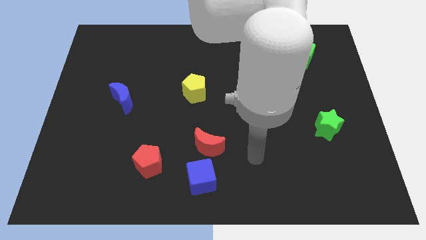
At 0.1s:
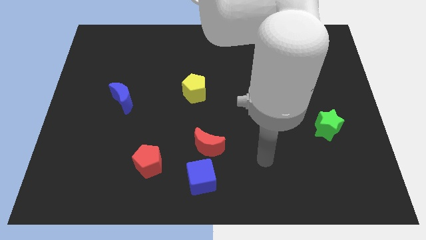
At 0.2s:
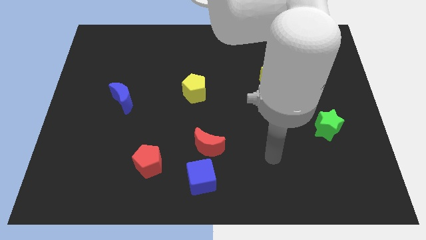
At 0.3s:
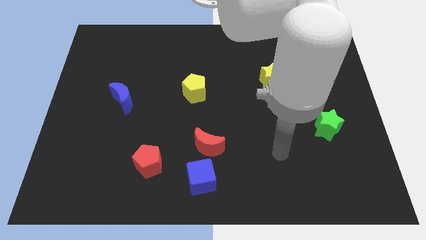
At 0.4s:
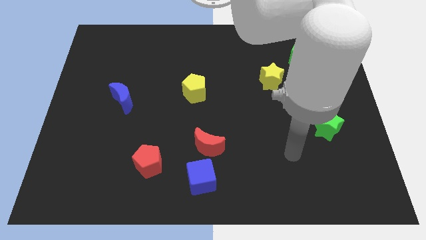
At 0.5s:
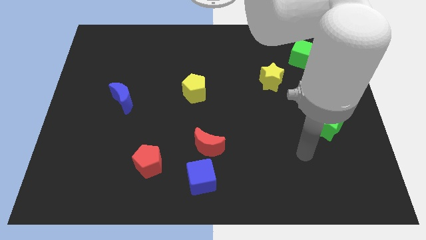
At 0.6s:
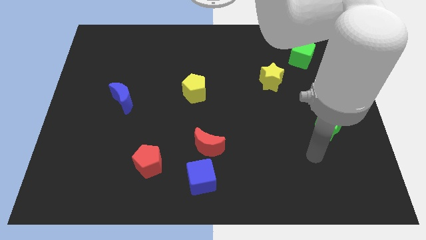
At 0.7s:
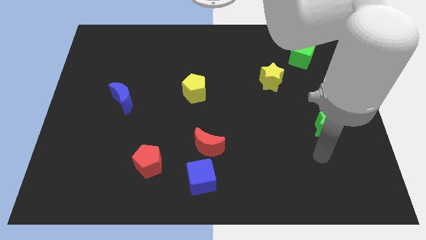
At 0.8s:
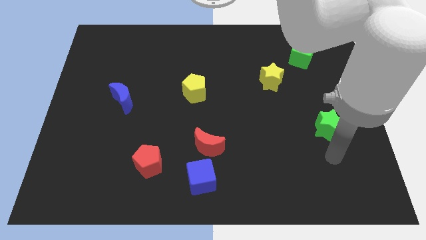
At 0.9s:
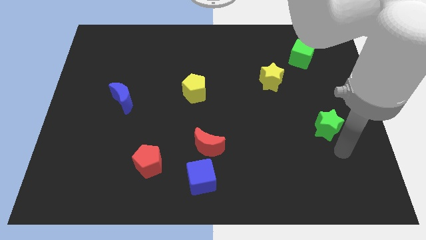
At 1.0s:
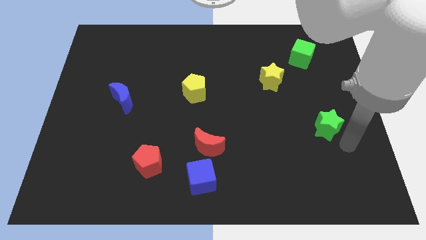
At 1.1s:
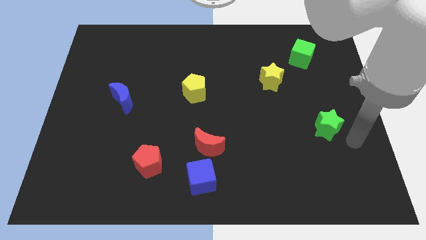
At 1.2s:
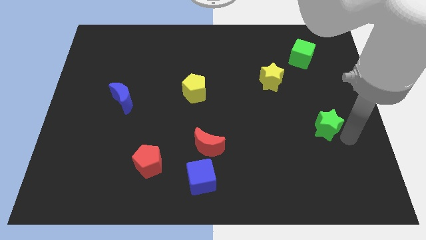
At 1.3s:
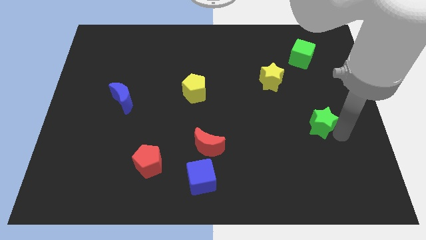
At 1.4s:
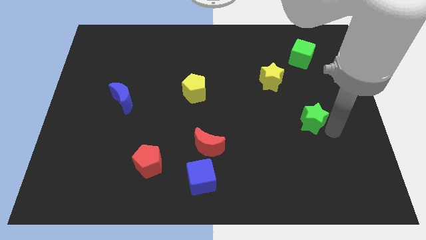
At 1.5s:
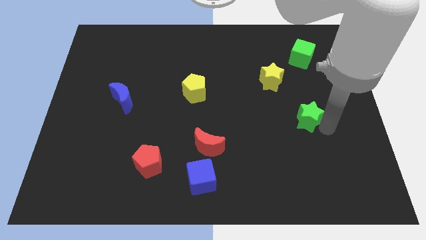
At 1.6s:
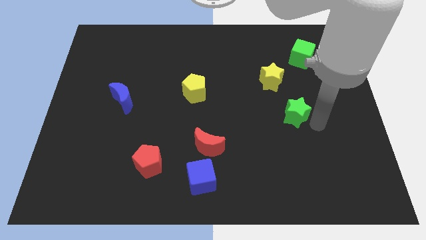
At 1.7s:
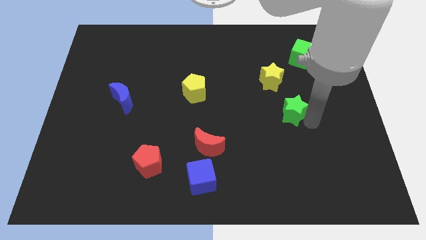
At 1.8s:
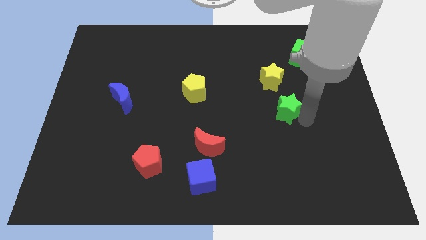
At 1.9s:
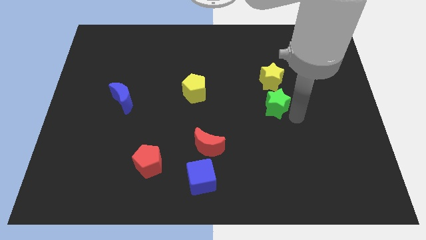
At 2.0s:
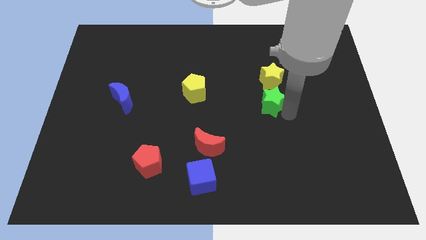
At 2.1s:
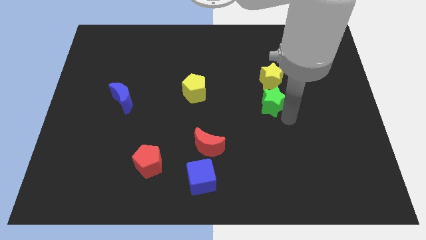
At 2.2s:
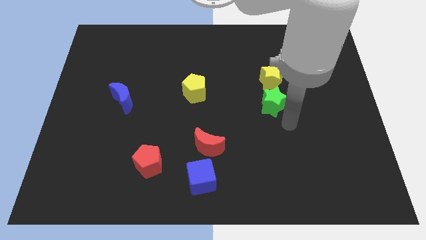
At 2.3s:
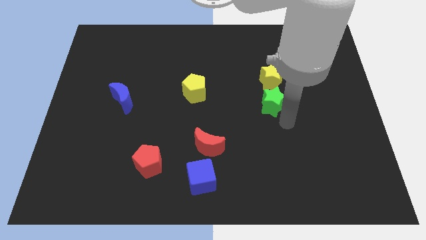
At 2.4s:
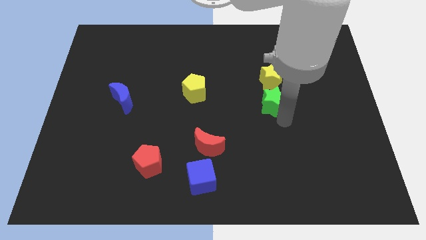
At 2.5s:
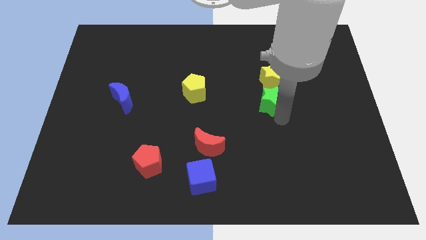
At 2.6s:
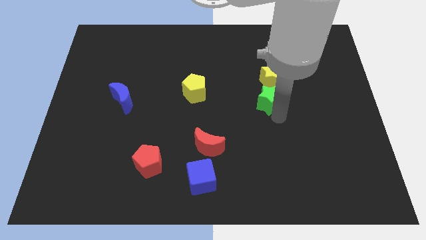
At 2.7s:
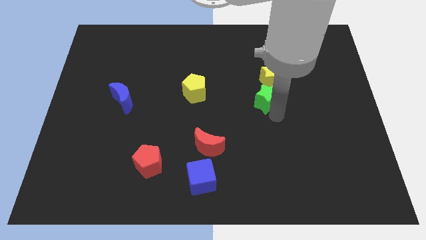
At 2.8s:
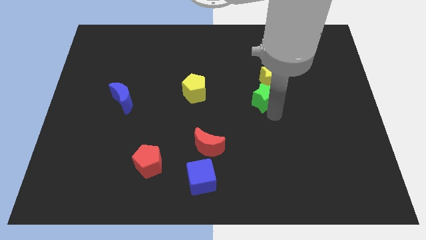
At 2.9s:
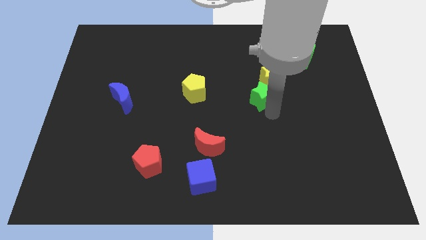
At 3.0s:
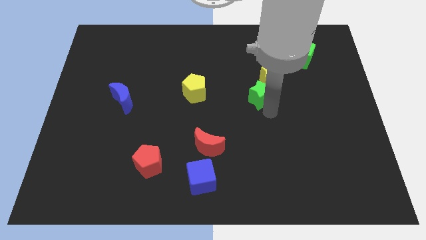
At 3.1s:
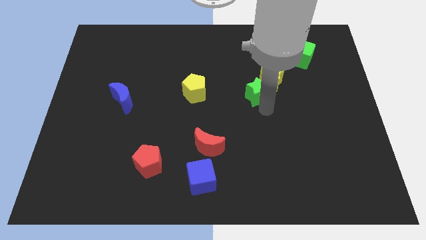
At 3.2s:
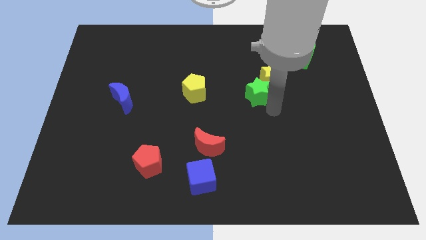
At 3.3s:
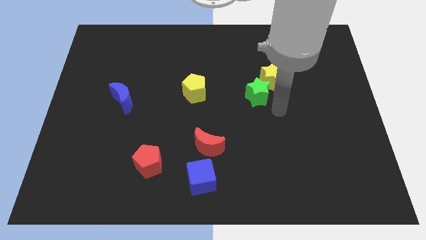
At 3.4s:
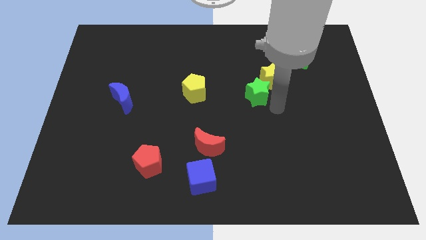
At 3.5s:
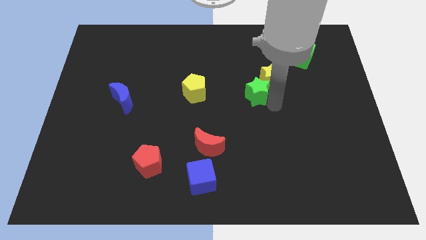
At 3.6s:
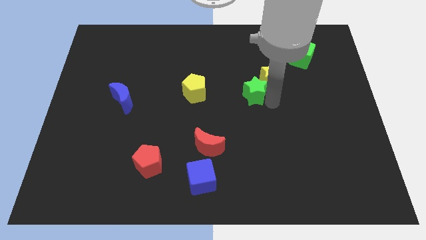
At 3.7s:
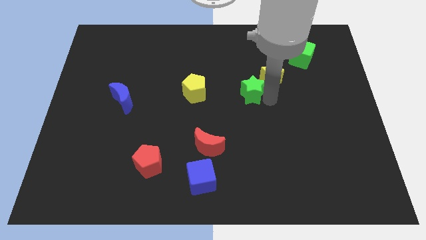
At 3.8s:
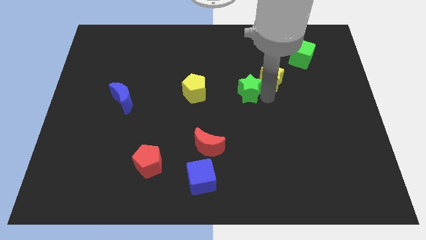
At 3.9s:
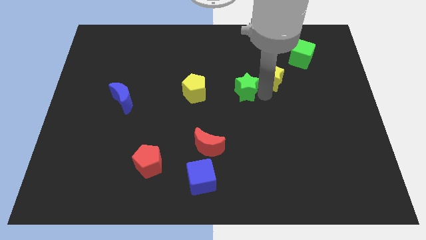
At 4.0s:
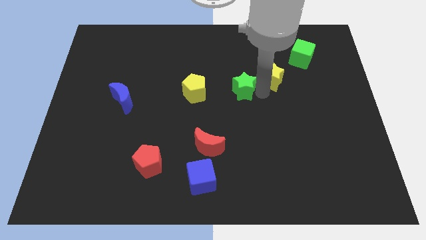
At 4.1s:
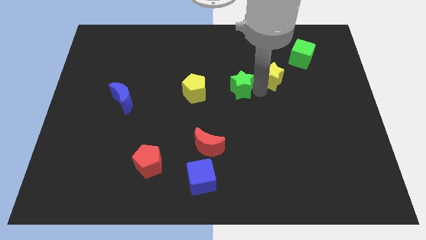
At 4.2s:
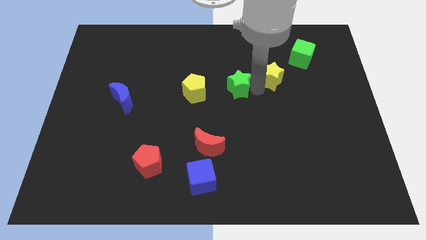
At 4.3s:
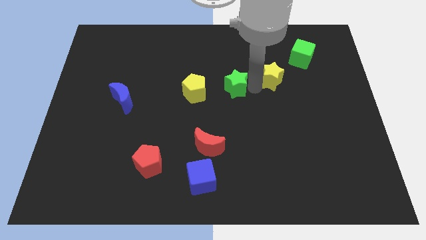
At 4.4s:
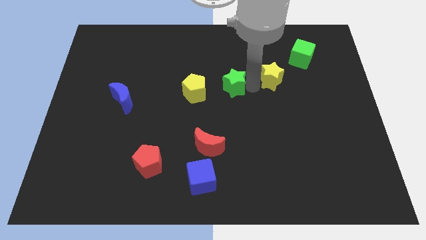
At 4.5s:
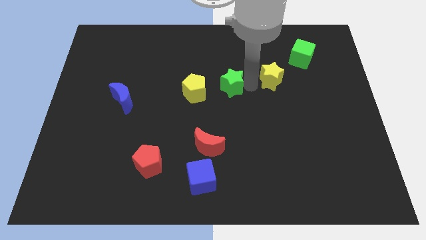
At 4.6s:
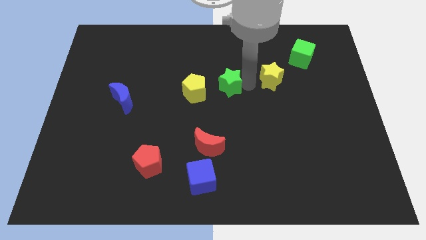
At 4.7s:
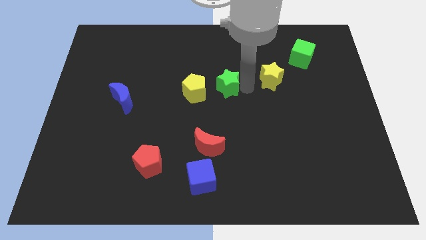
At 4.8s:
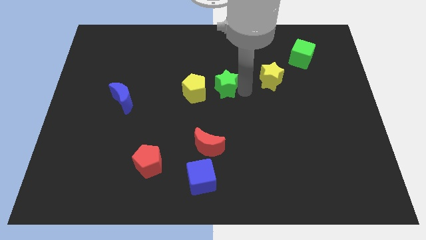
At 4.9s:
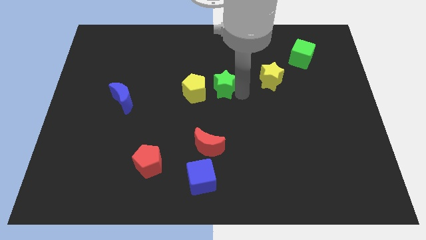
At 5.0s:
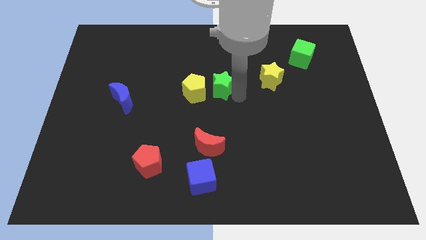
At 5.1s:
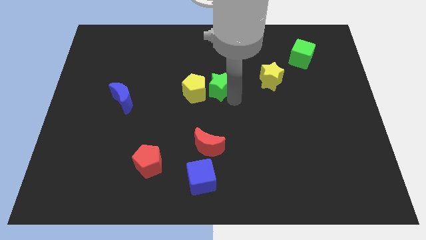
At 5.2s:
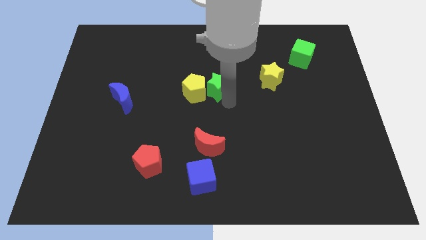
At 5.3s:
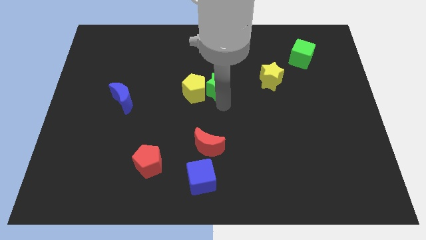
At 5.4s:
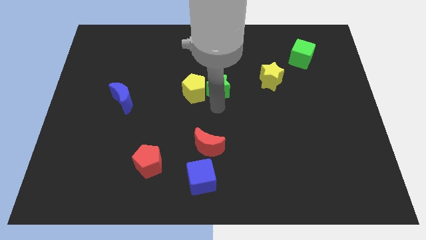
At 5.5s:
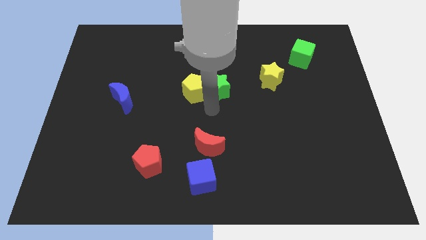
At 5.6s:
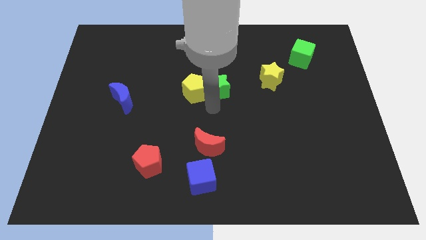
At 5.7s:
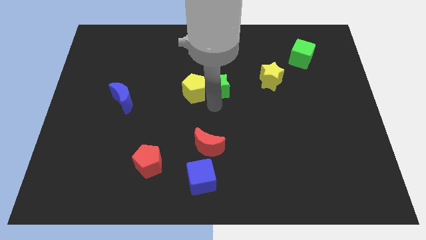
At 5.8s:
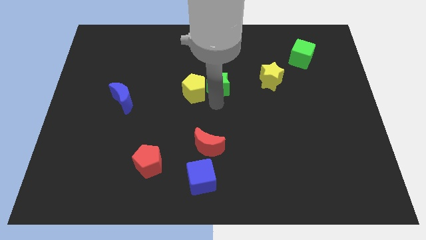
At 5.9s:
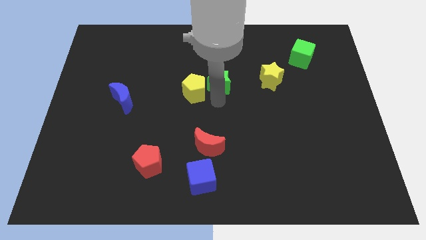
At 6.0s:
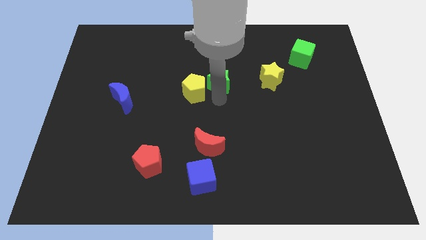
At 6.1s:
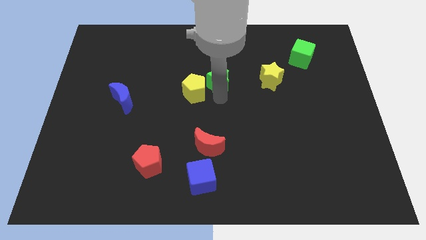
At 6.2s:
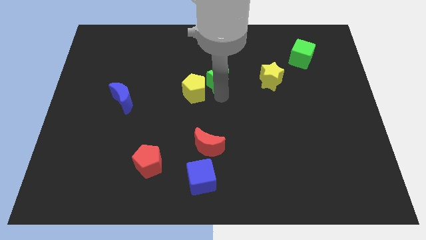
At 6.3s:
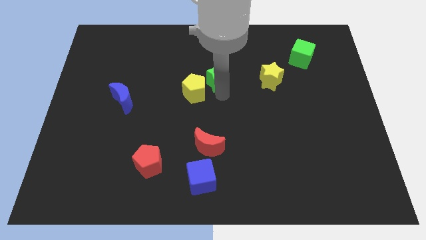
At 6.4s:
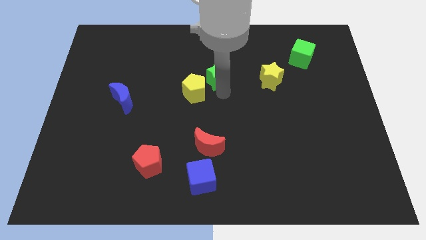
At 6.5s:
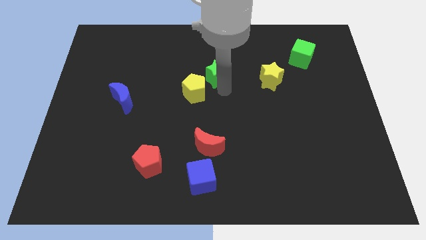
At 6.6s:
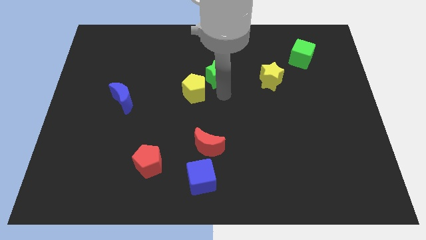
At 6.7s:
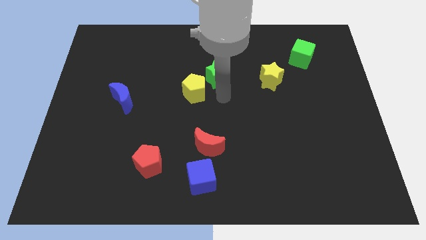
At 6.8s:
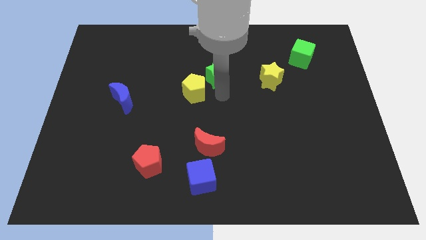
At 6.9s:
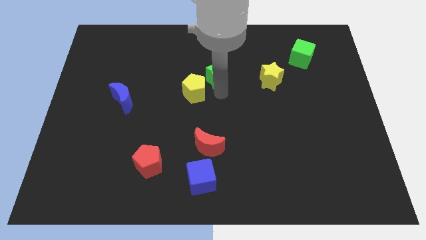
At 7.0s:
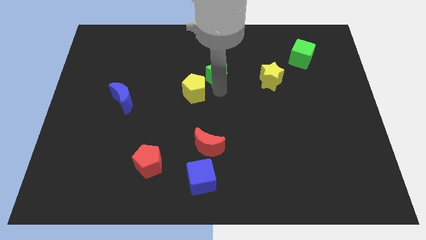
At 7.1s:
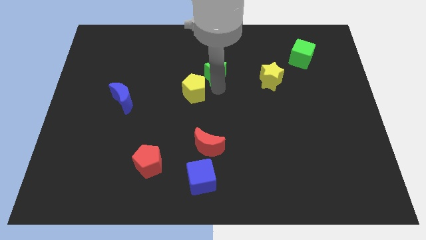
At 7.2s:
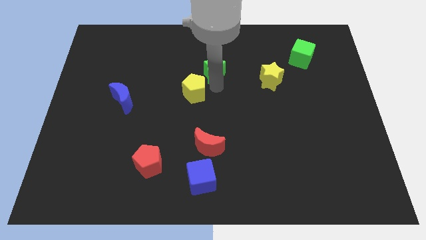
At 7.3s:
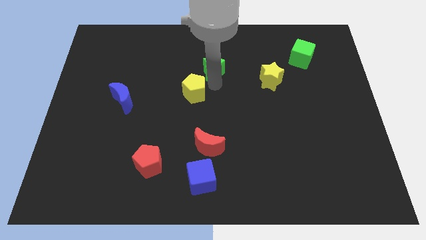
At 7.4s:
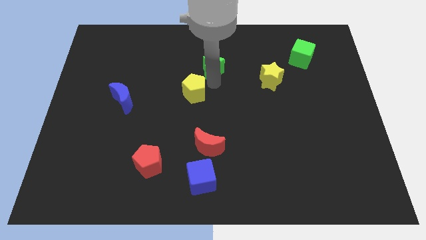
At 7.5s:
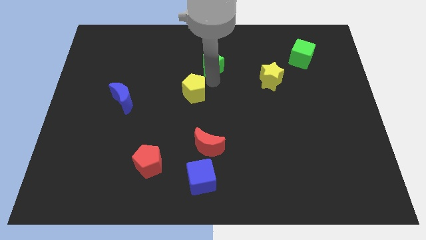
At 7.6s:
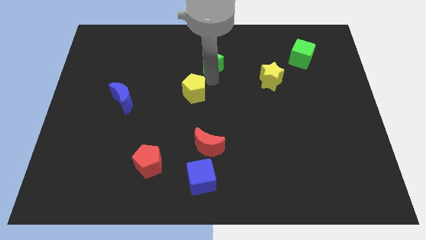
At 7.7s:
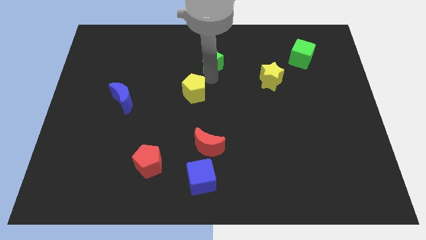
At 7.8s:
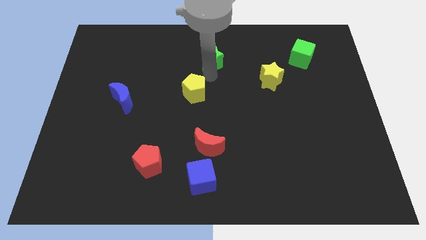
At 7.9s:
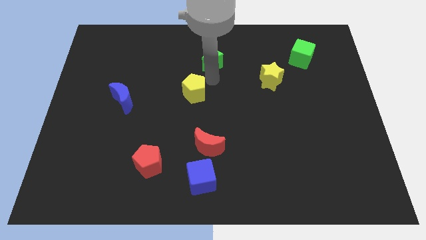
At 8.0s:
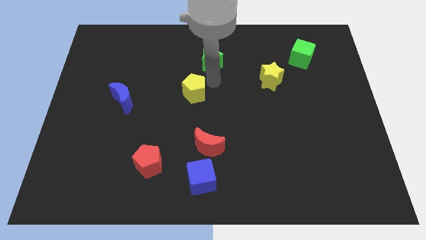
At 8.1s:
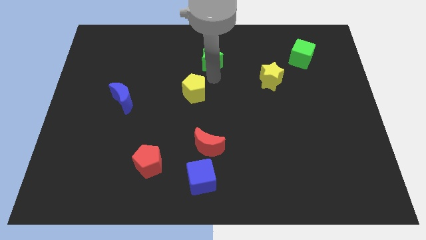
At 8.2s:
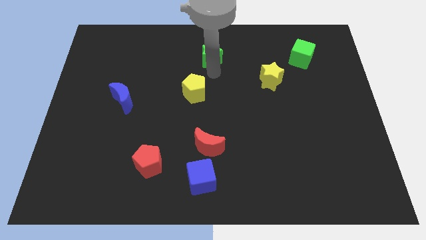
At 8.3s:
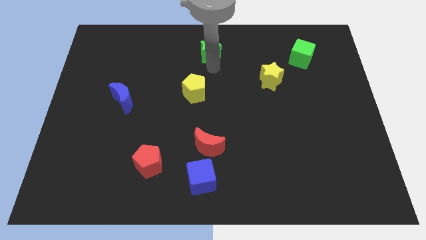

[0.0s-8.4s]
put the green star to the top
